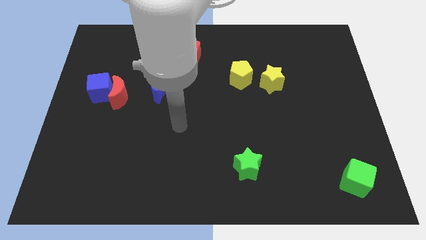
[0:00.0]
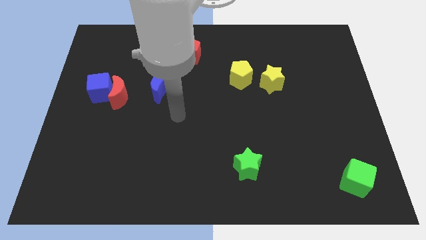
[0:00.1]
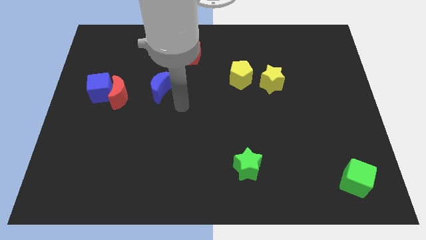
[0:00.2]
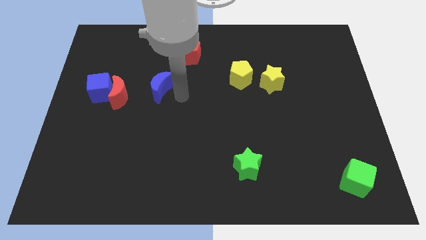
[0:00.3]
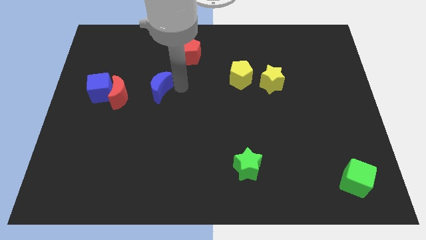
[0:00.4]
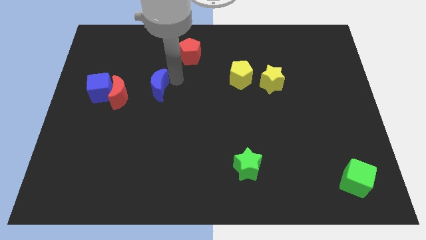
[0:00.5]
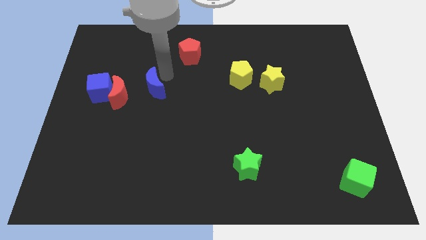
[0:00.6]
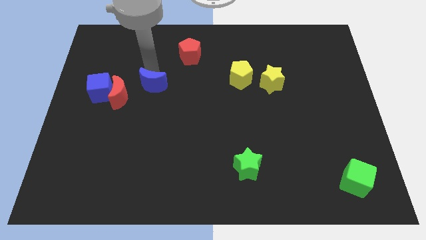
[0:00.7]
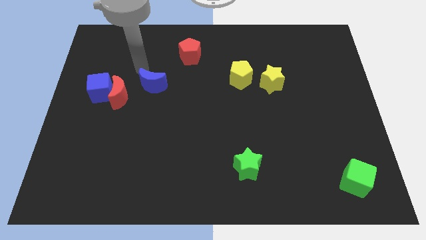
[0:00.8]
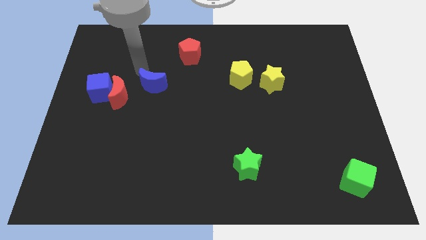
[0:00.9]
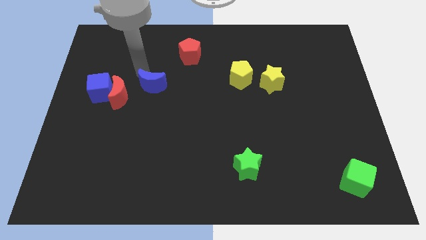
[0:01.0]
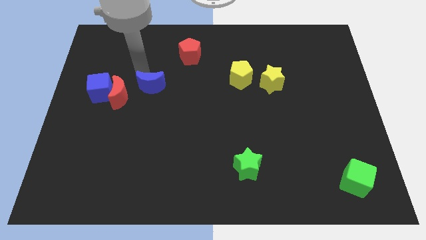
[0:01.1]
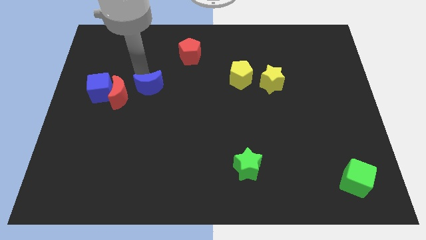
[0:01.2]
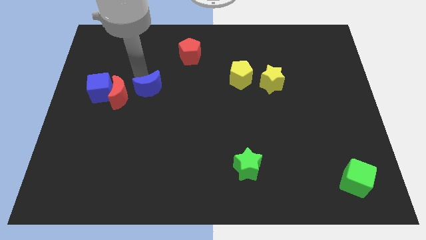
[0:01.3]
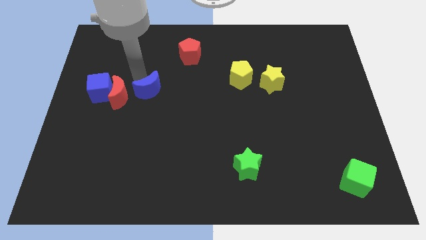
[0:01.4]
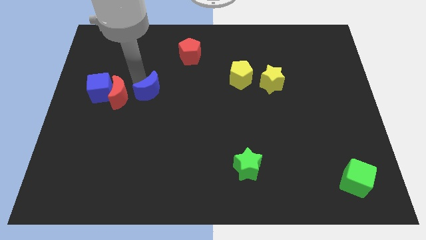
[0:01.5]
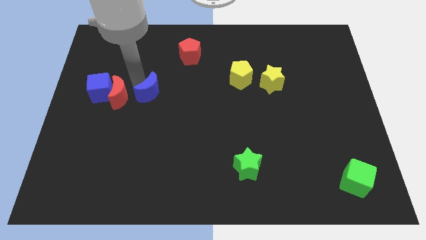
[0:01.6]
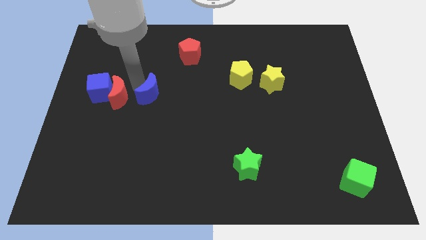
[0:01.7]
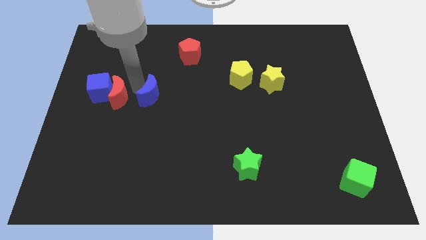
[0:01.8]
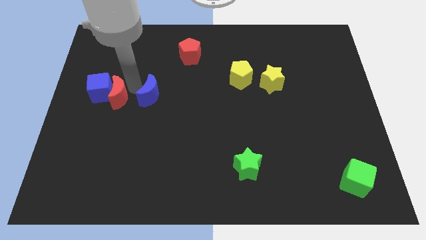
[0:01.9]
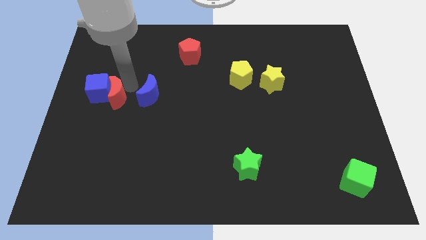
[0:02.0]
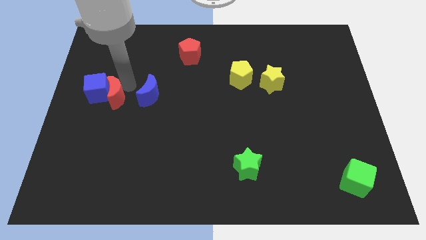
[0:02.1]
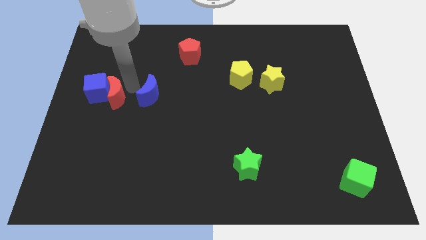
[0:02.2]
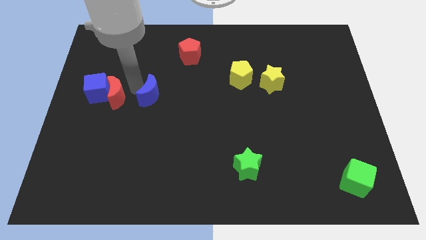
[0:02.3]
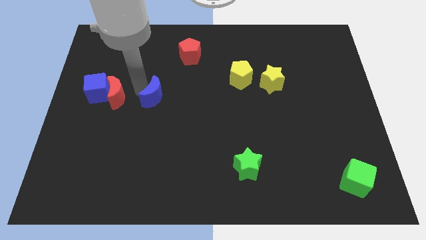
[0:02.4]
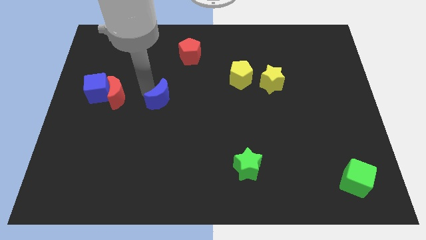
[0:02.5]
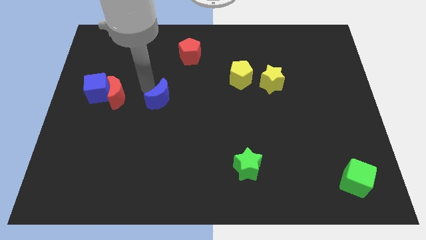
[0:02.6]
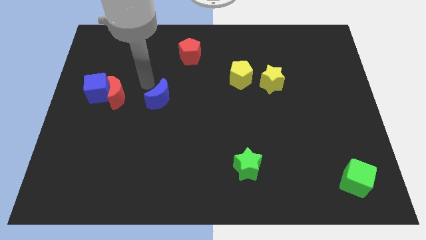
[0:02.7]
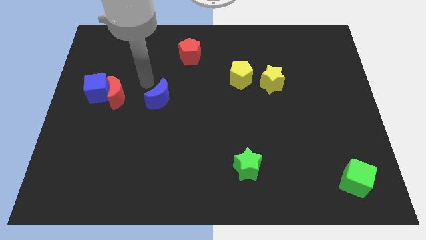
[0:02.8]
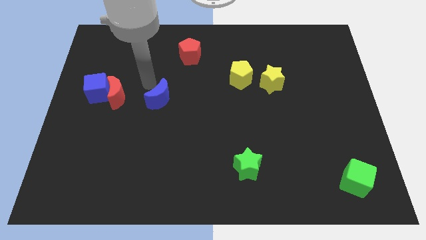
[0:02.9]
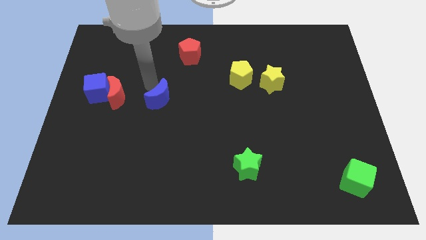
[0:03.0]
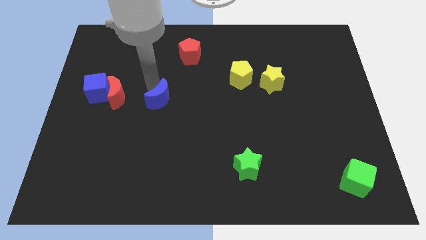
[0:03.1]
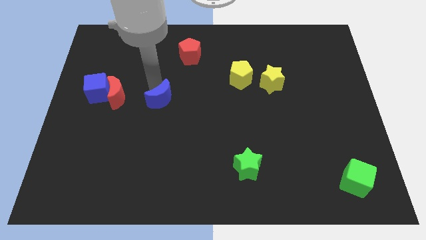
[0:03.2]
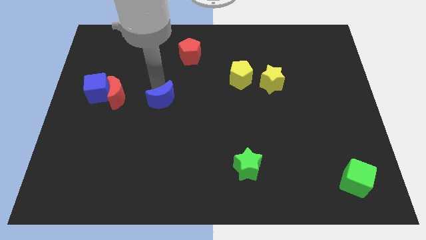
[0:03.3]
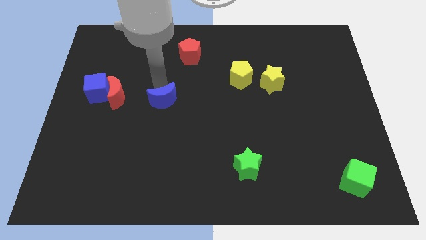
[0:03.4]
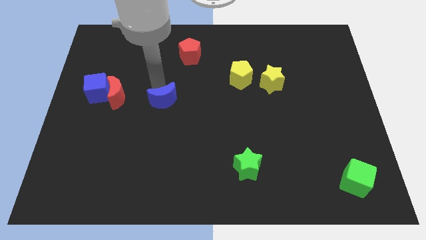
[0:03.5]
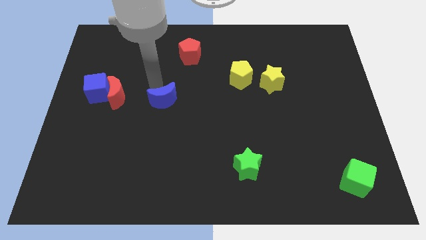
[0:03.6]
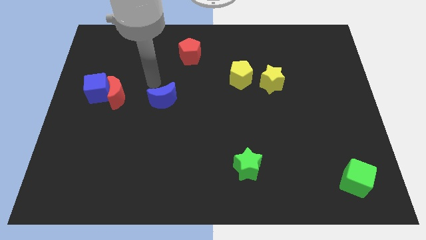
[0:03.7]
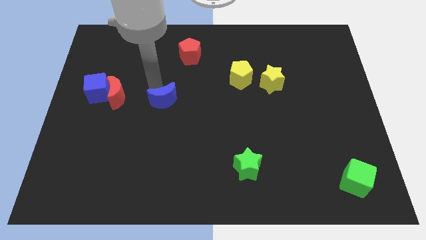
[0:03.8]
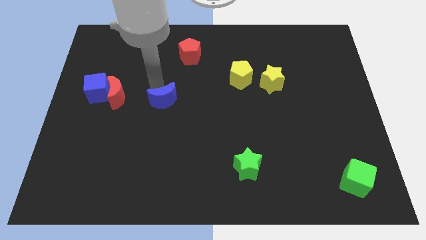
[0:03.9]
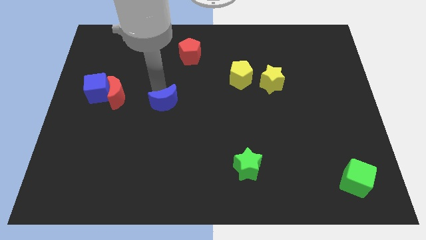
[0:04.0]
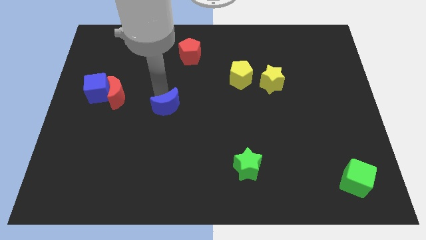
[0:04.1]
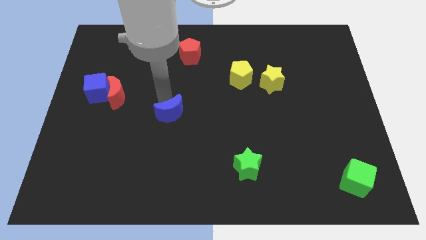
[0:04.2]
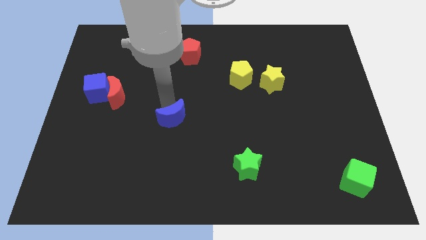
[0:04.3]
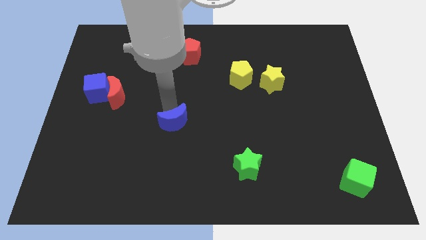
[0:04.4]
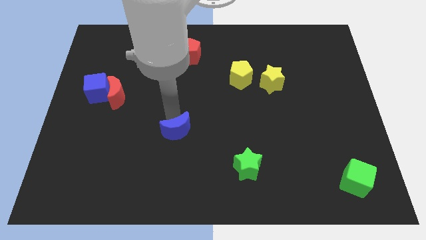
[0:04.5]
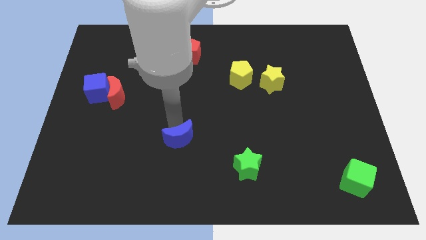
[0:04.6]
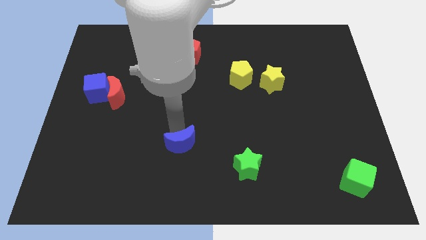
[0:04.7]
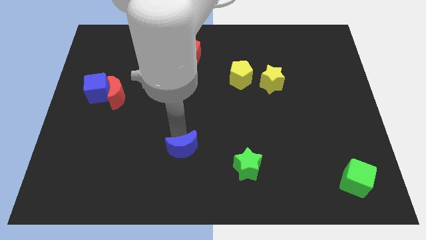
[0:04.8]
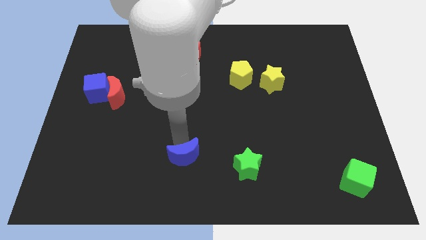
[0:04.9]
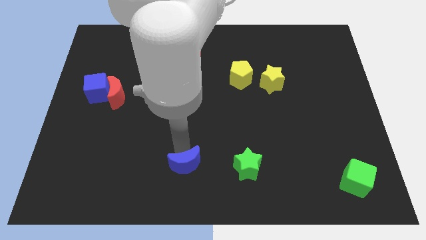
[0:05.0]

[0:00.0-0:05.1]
push the blue moon to the bottom

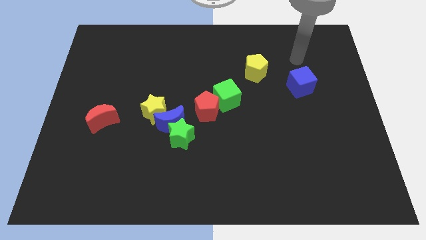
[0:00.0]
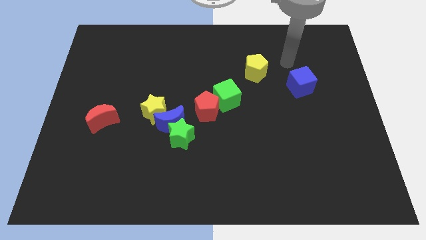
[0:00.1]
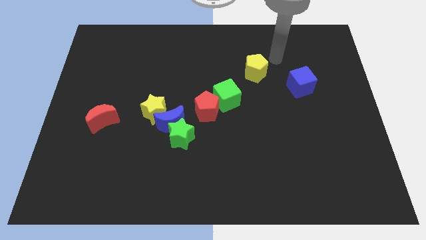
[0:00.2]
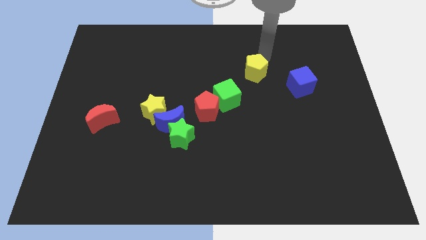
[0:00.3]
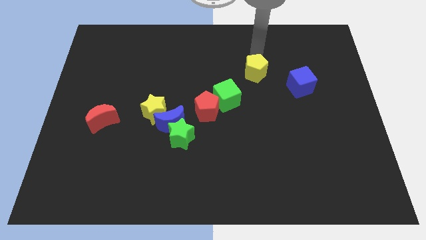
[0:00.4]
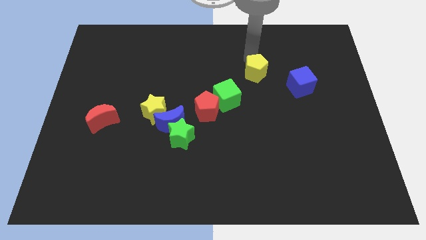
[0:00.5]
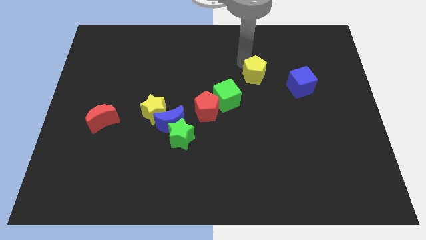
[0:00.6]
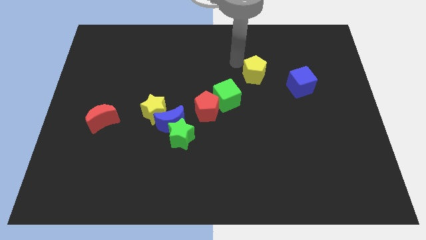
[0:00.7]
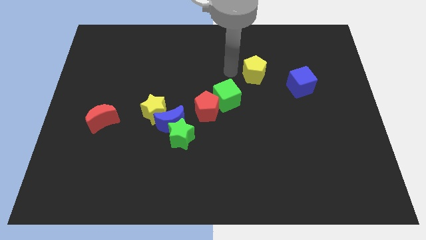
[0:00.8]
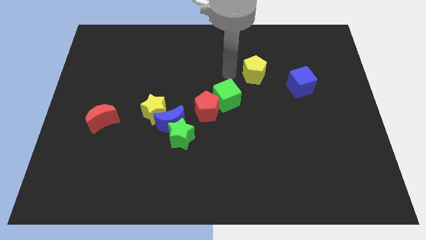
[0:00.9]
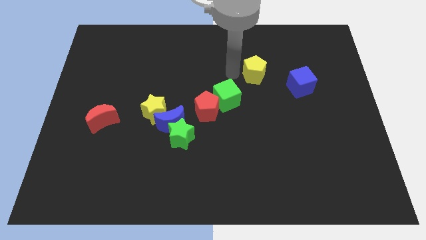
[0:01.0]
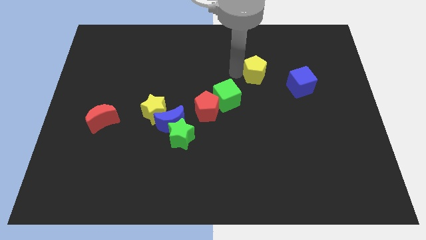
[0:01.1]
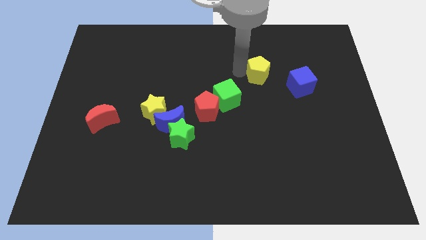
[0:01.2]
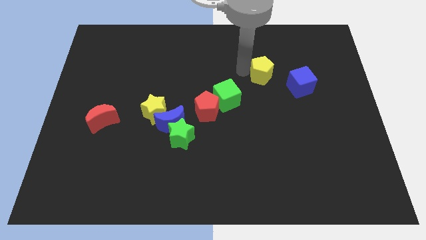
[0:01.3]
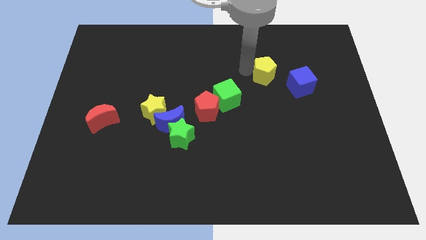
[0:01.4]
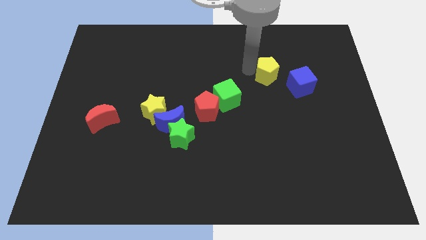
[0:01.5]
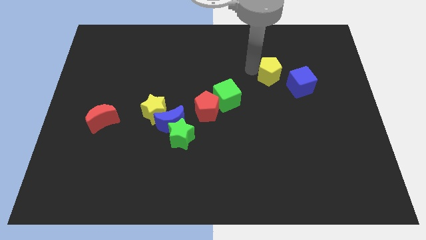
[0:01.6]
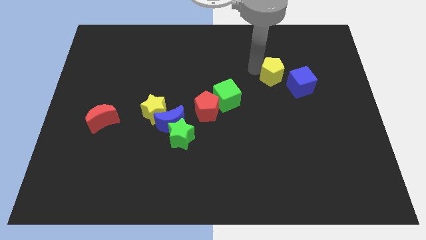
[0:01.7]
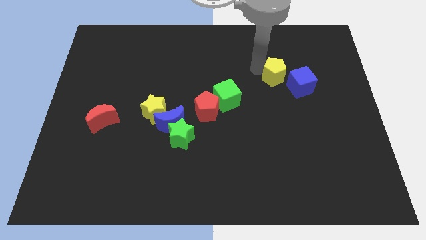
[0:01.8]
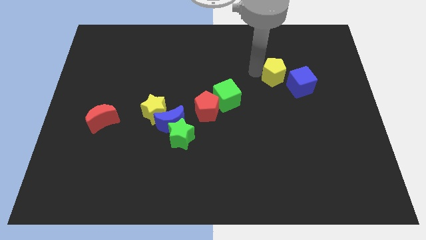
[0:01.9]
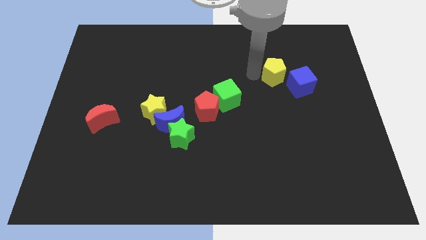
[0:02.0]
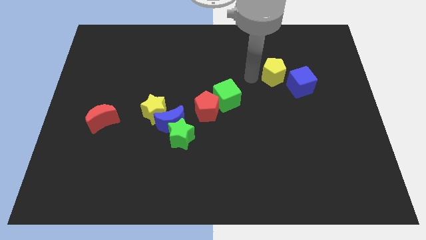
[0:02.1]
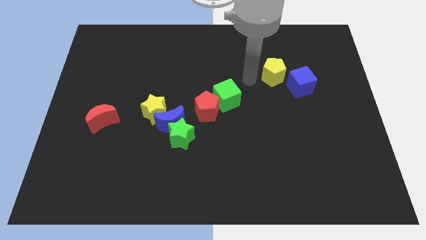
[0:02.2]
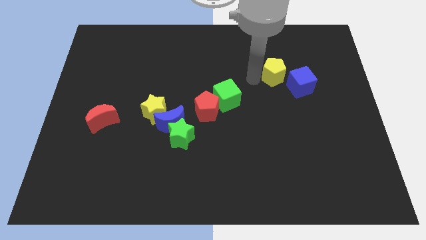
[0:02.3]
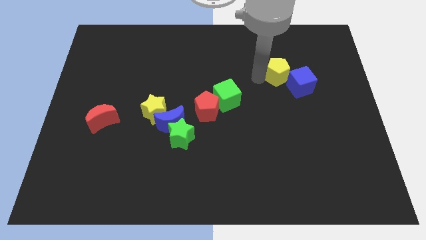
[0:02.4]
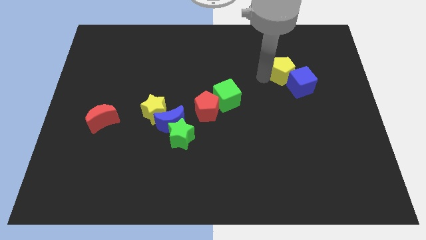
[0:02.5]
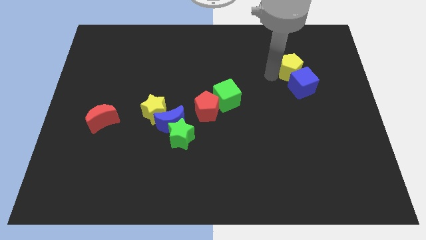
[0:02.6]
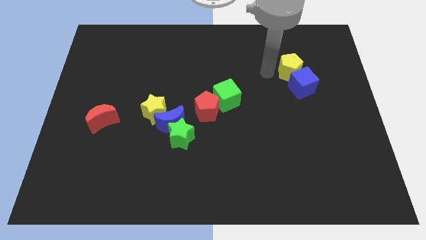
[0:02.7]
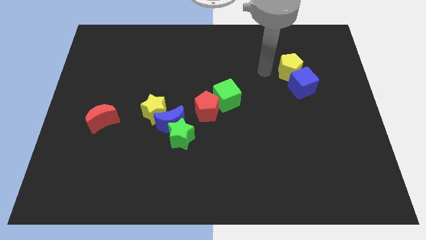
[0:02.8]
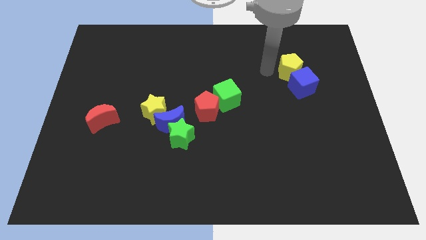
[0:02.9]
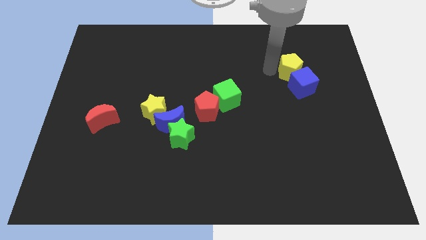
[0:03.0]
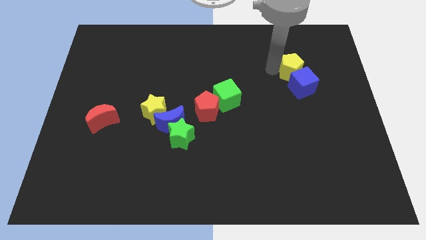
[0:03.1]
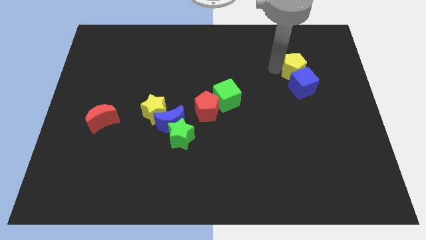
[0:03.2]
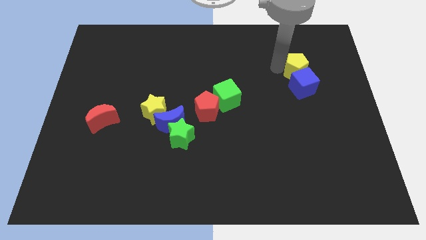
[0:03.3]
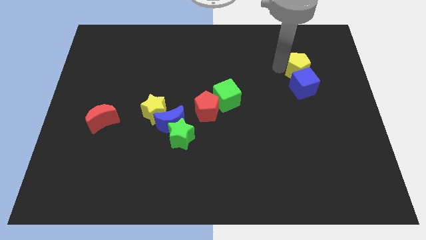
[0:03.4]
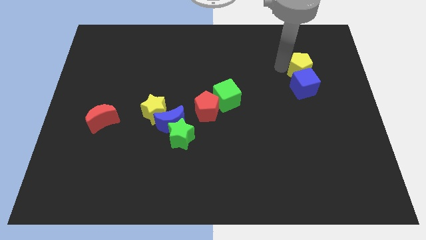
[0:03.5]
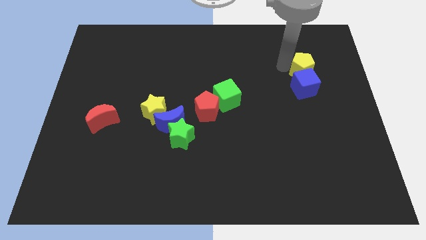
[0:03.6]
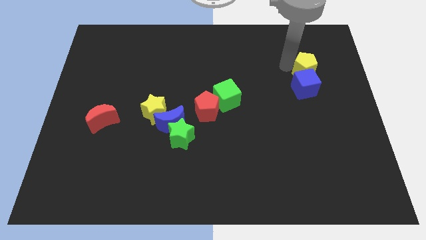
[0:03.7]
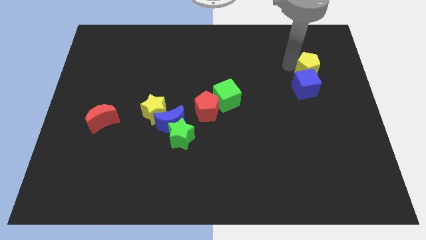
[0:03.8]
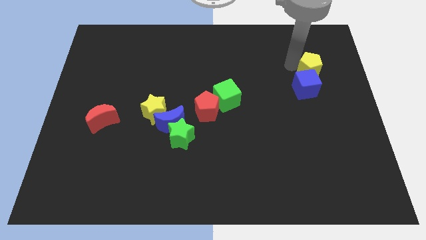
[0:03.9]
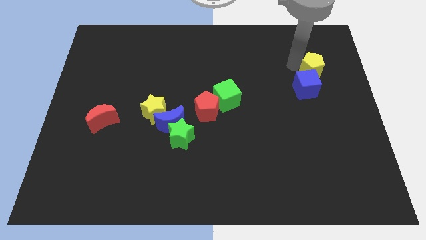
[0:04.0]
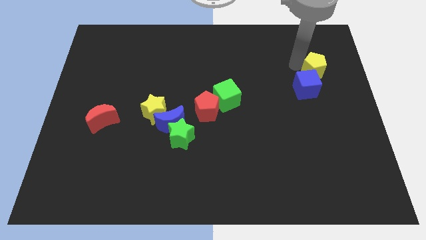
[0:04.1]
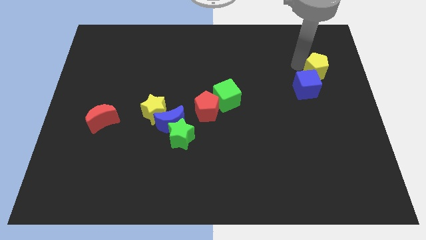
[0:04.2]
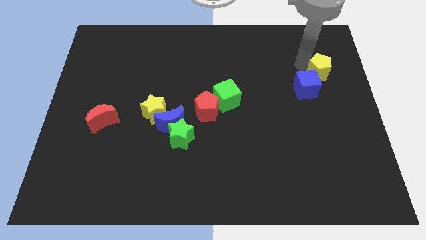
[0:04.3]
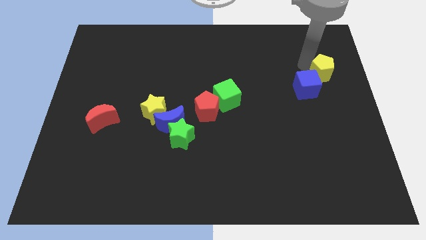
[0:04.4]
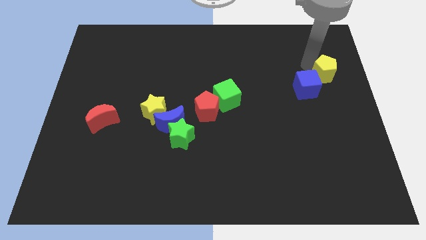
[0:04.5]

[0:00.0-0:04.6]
put the yellow pentagon to the right side
